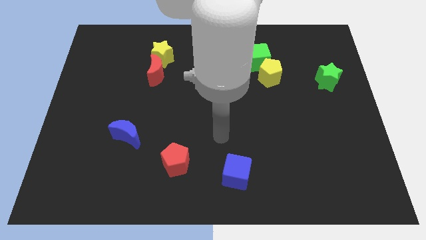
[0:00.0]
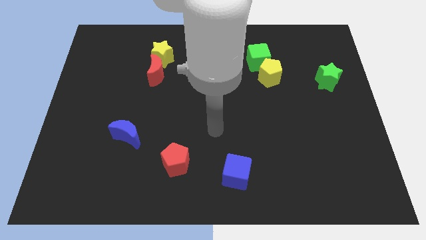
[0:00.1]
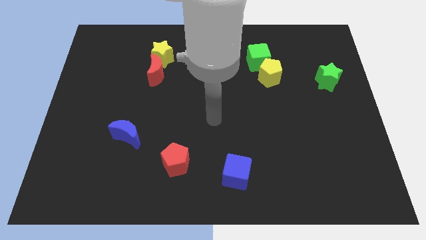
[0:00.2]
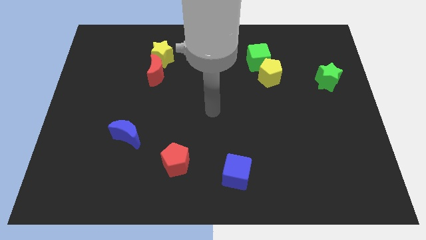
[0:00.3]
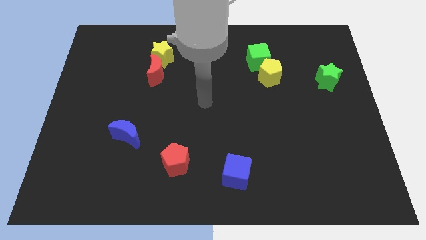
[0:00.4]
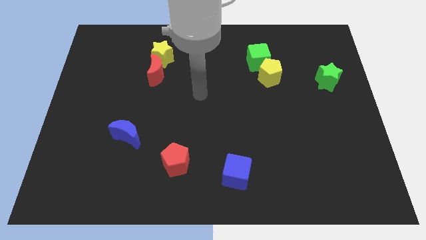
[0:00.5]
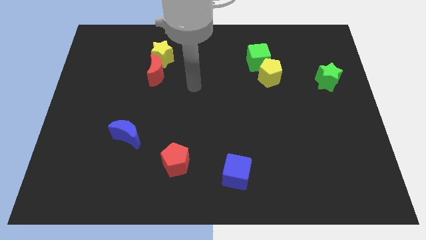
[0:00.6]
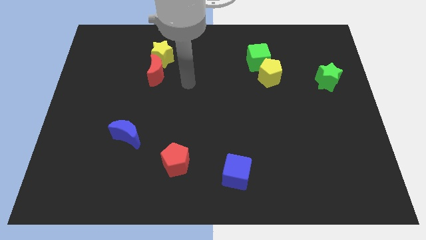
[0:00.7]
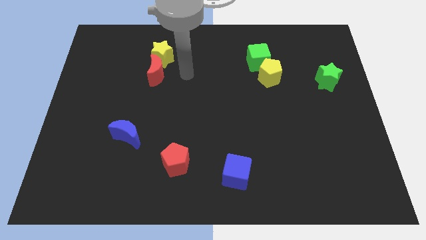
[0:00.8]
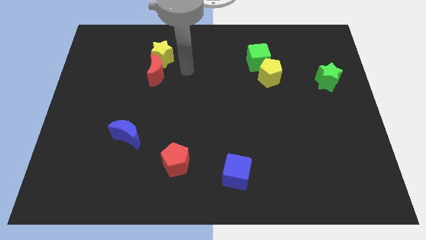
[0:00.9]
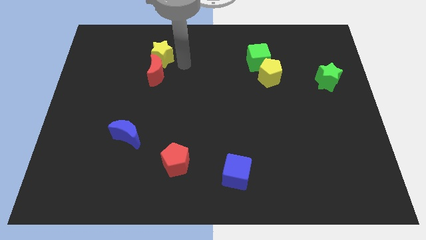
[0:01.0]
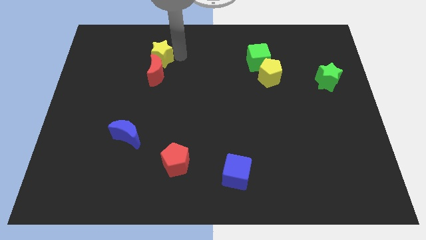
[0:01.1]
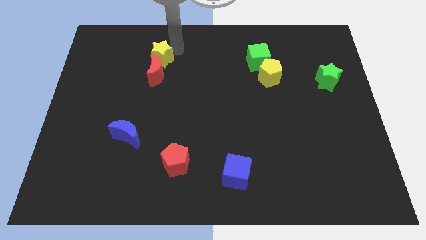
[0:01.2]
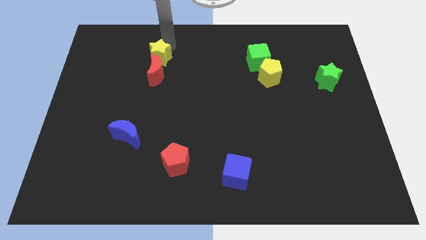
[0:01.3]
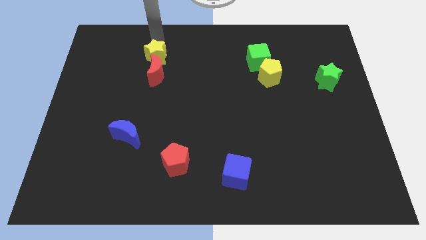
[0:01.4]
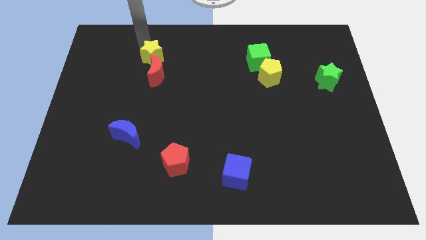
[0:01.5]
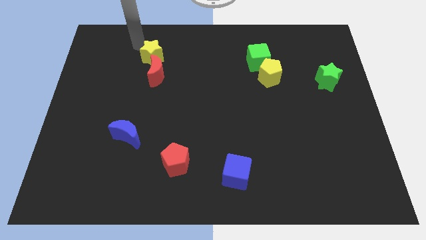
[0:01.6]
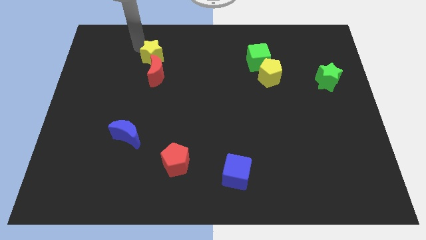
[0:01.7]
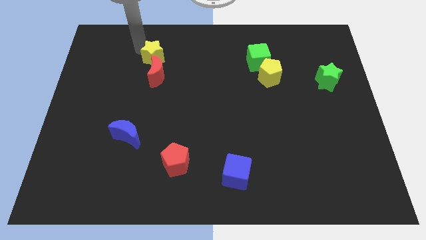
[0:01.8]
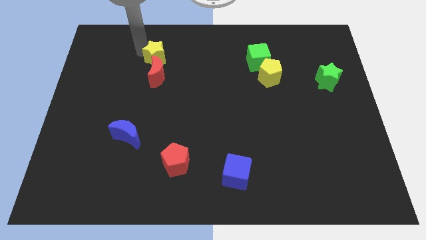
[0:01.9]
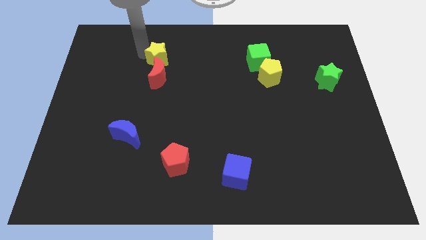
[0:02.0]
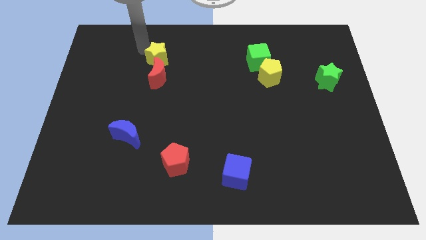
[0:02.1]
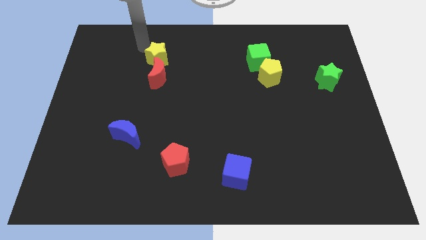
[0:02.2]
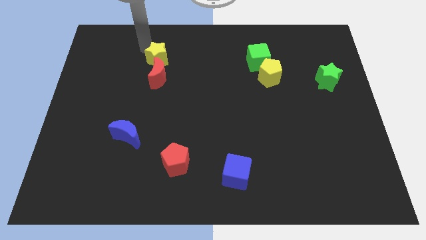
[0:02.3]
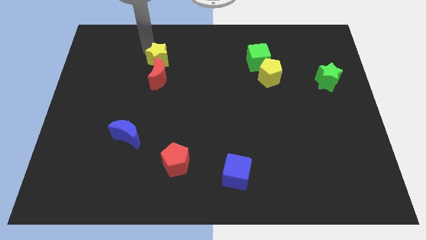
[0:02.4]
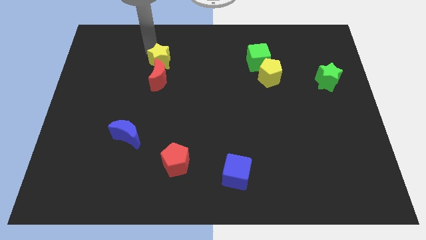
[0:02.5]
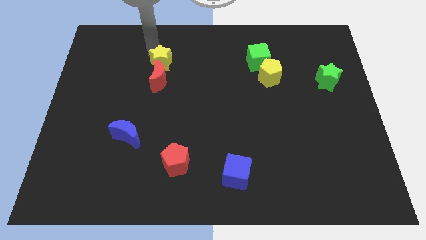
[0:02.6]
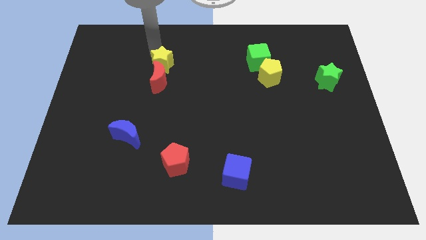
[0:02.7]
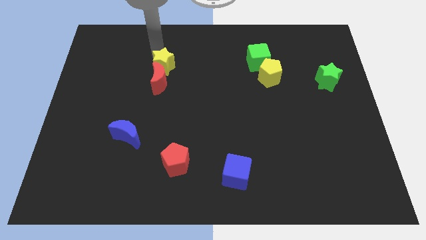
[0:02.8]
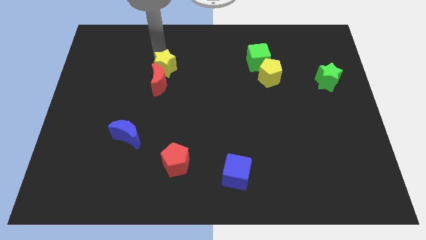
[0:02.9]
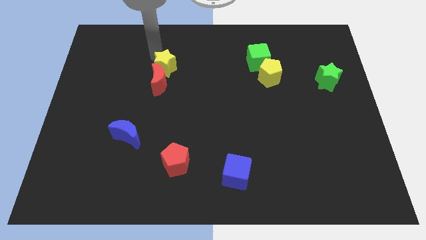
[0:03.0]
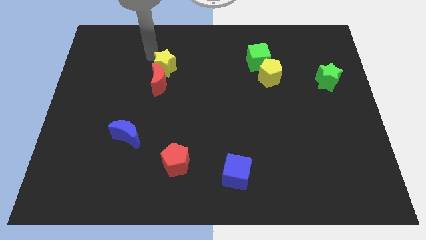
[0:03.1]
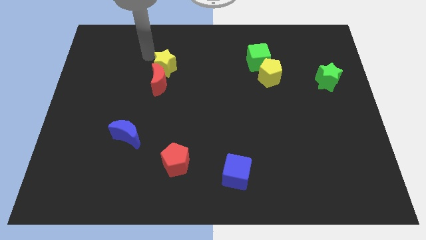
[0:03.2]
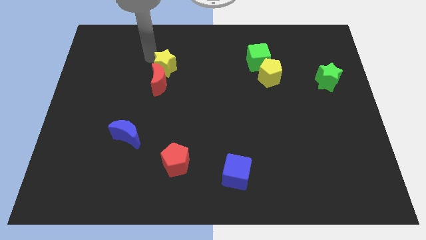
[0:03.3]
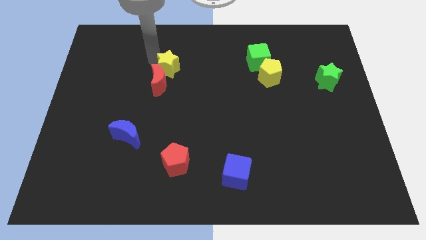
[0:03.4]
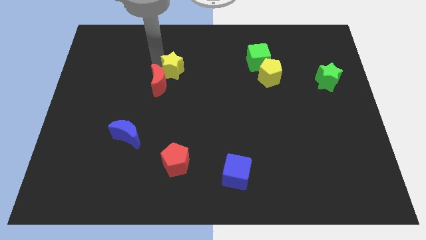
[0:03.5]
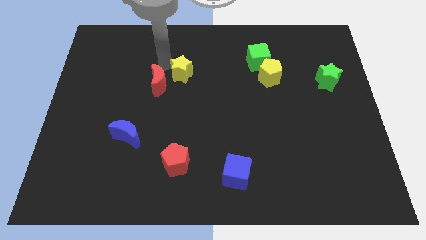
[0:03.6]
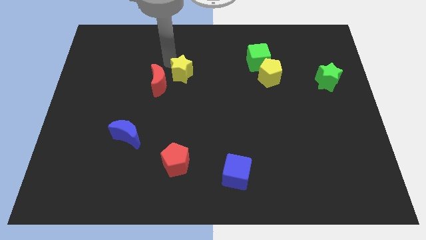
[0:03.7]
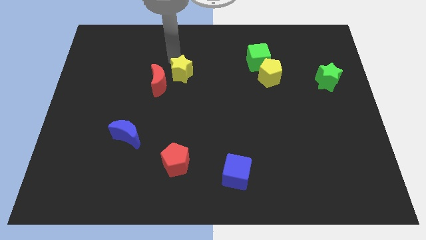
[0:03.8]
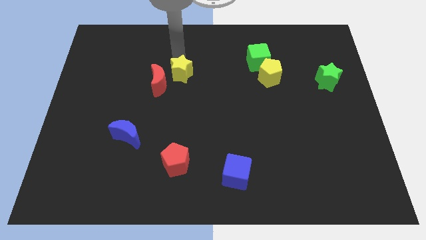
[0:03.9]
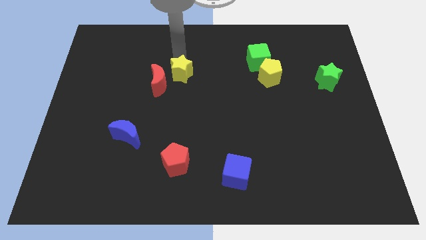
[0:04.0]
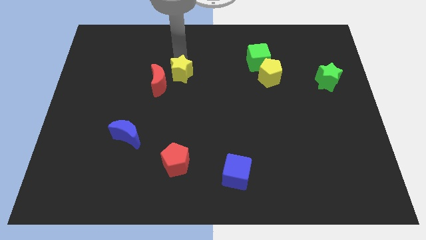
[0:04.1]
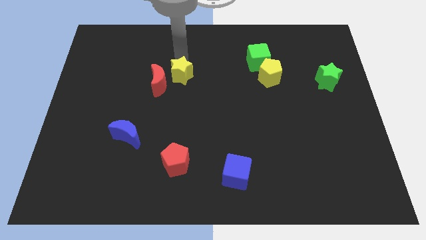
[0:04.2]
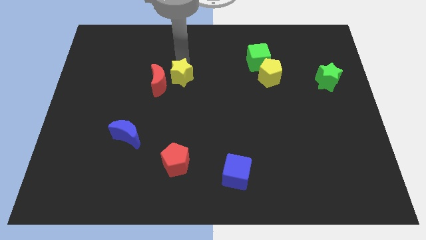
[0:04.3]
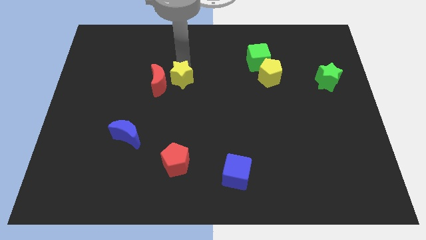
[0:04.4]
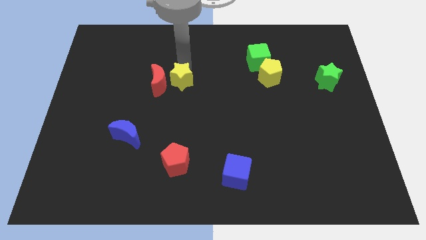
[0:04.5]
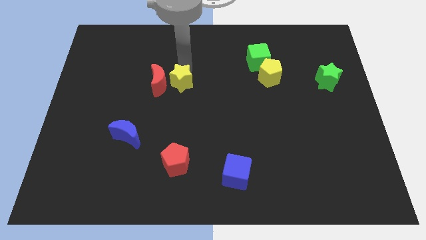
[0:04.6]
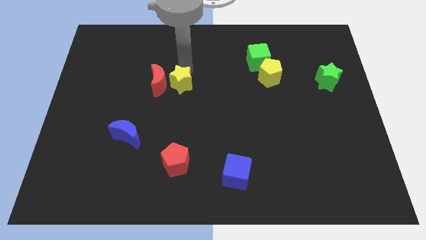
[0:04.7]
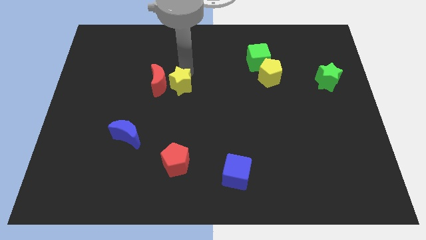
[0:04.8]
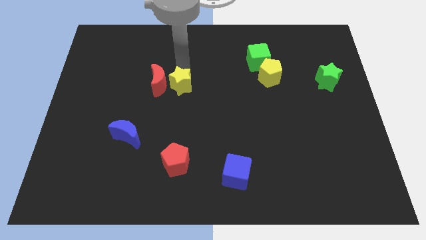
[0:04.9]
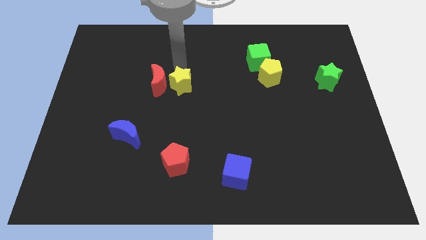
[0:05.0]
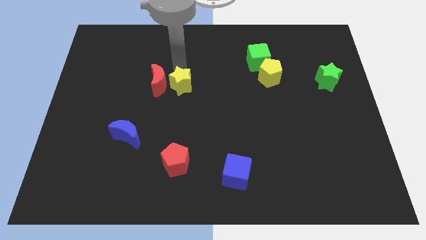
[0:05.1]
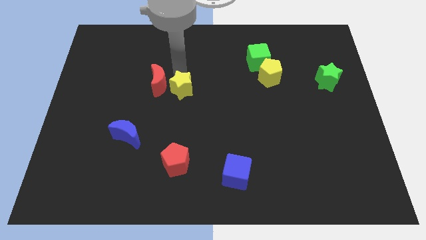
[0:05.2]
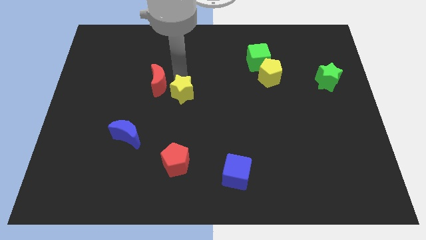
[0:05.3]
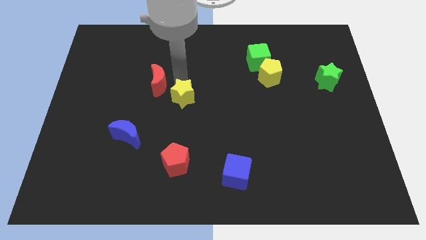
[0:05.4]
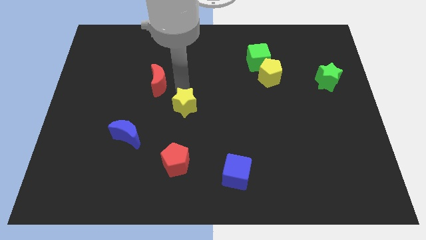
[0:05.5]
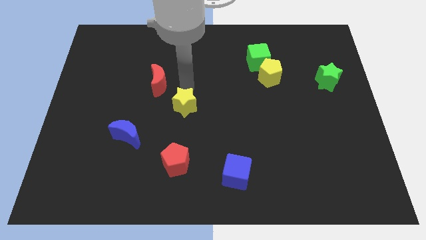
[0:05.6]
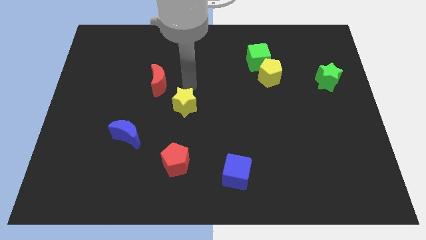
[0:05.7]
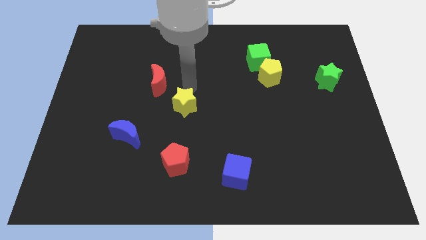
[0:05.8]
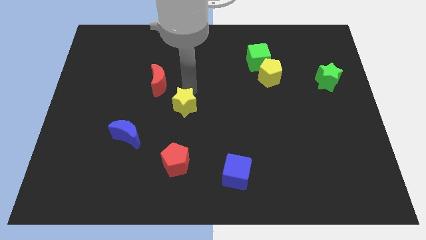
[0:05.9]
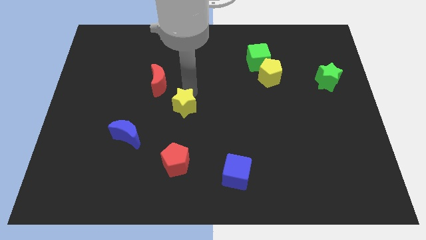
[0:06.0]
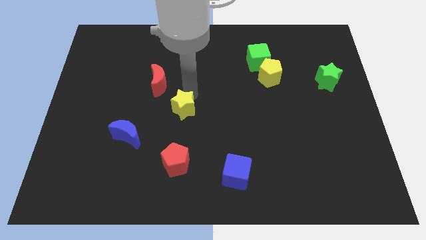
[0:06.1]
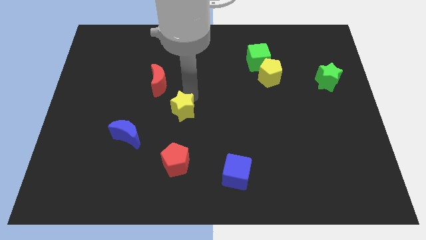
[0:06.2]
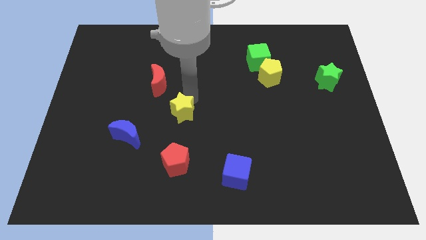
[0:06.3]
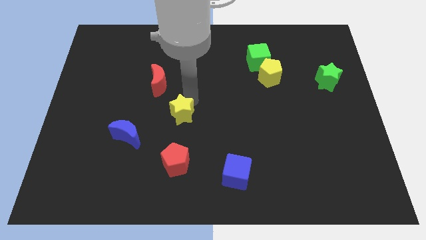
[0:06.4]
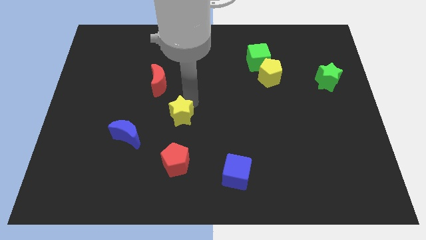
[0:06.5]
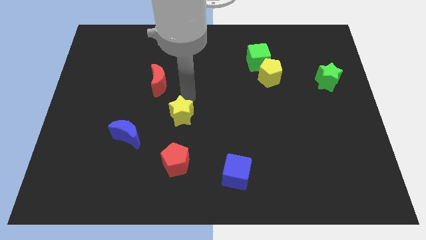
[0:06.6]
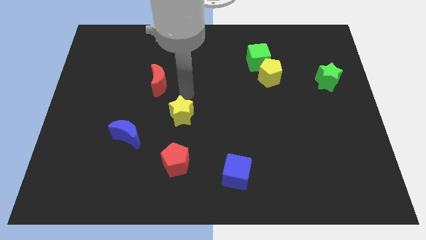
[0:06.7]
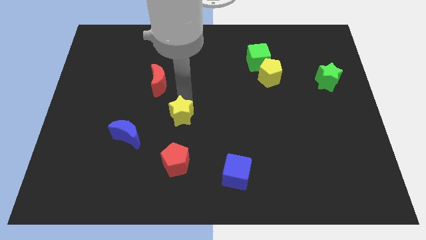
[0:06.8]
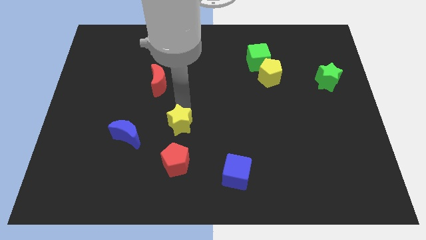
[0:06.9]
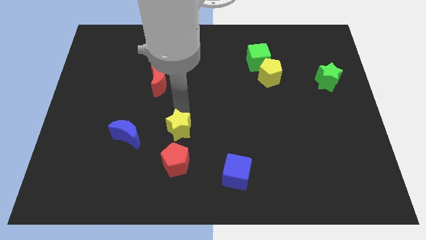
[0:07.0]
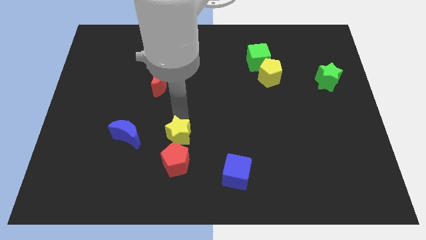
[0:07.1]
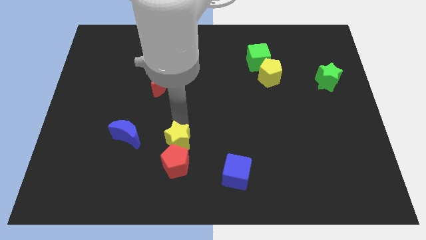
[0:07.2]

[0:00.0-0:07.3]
push the yellow star to the red pentagon
